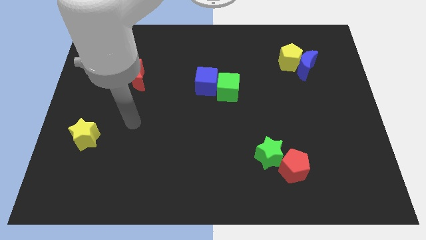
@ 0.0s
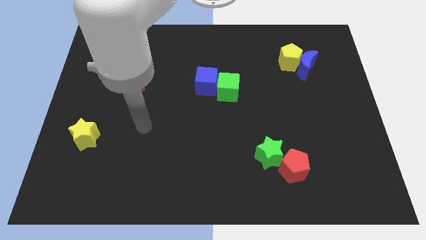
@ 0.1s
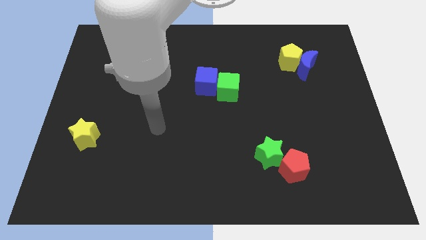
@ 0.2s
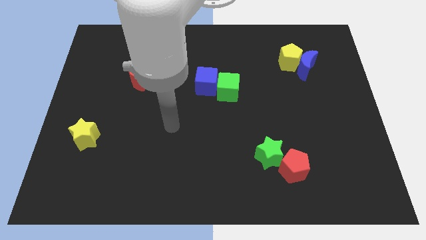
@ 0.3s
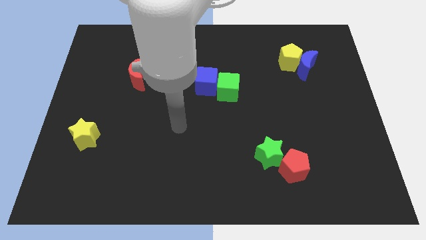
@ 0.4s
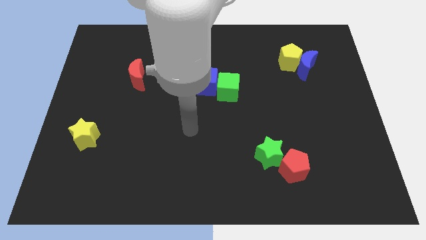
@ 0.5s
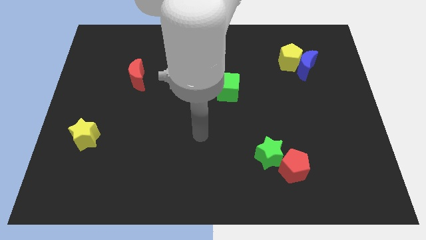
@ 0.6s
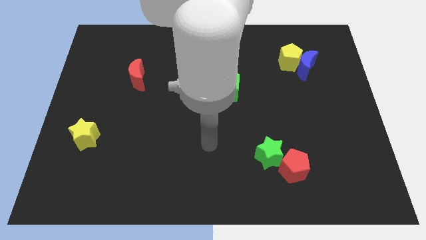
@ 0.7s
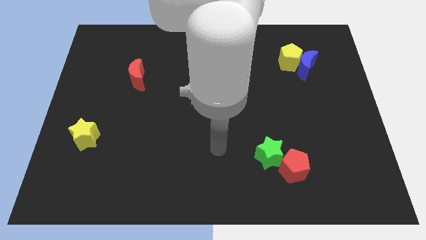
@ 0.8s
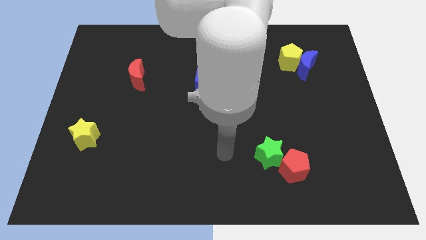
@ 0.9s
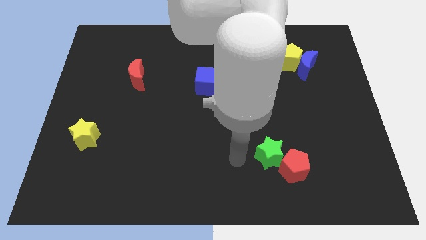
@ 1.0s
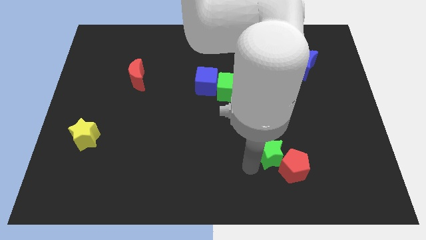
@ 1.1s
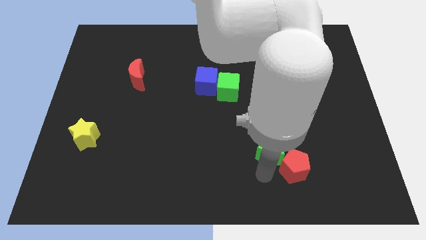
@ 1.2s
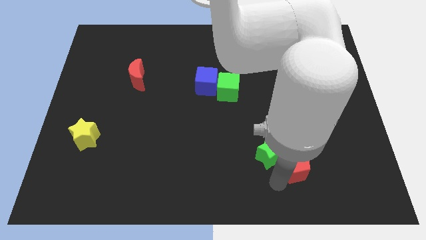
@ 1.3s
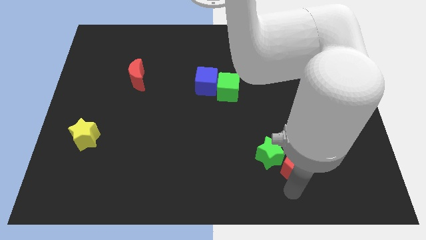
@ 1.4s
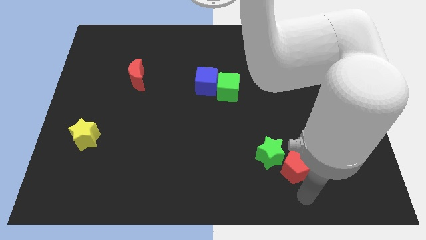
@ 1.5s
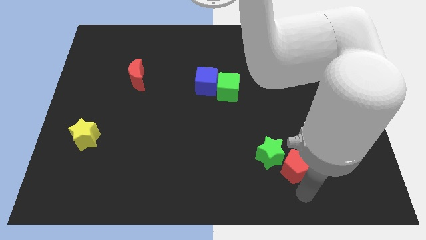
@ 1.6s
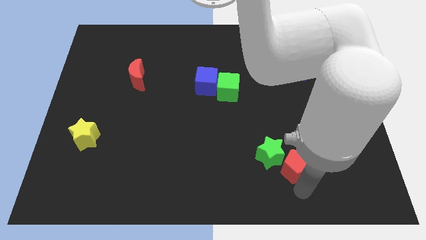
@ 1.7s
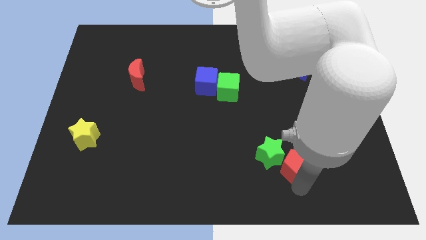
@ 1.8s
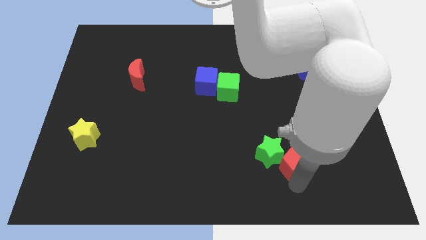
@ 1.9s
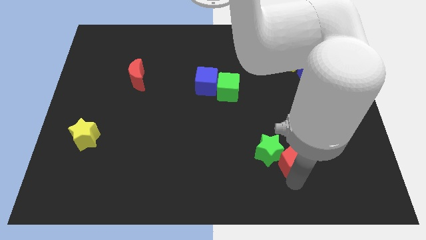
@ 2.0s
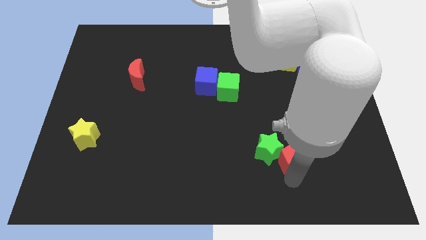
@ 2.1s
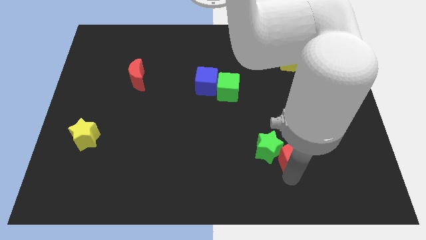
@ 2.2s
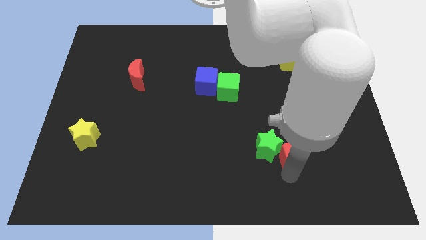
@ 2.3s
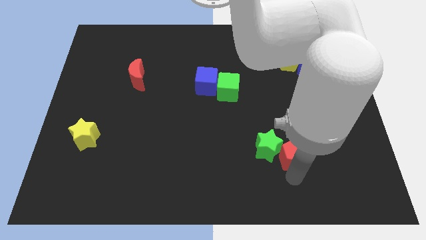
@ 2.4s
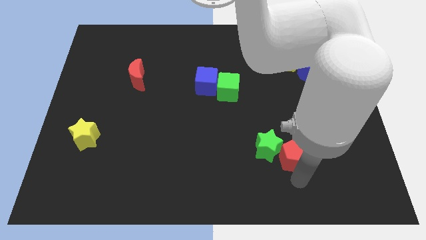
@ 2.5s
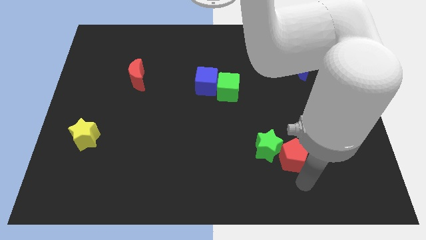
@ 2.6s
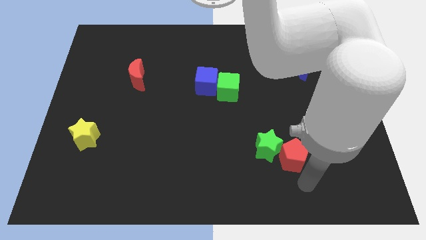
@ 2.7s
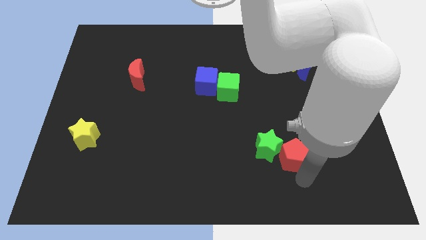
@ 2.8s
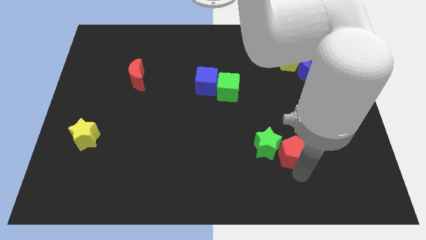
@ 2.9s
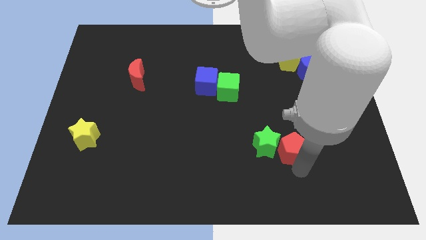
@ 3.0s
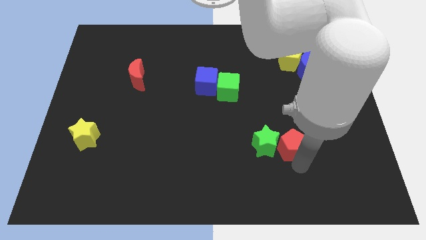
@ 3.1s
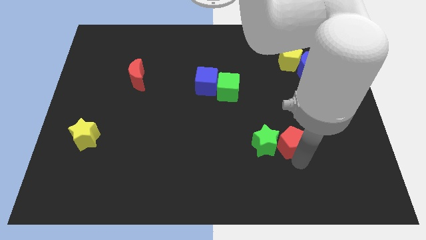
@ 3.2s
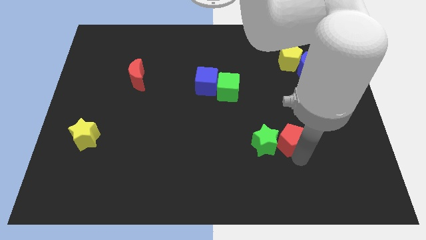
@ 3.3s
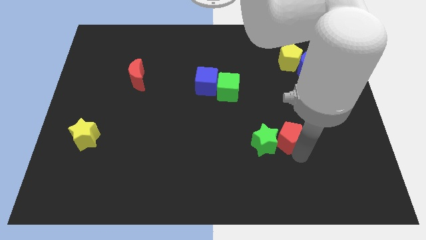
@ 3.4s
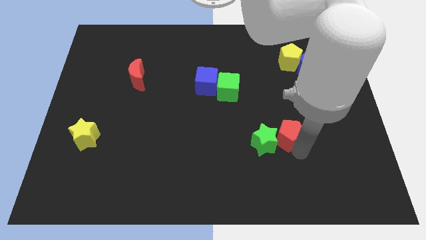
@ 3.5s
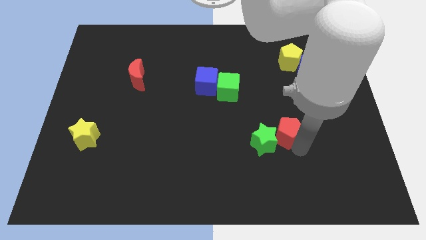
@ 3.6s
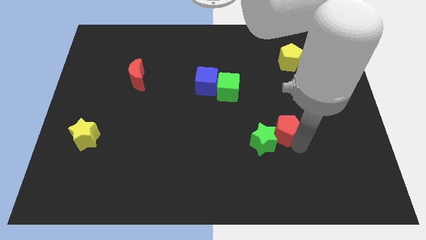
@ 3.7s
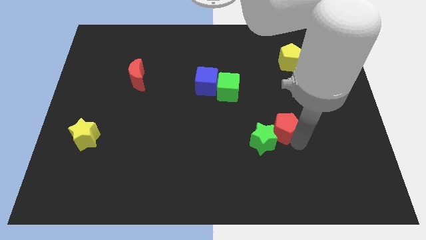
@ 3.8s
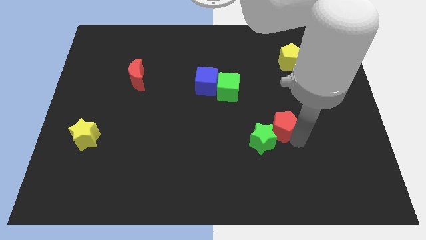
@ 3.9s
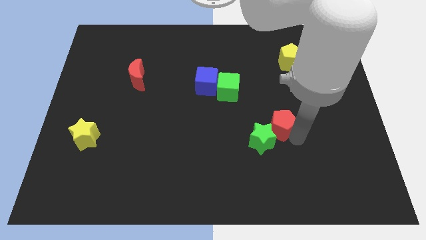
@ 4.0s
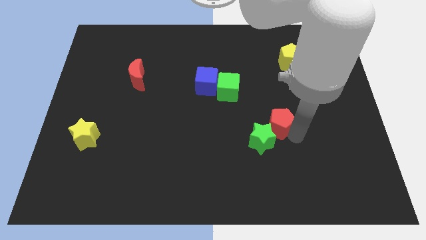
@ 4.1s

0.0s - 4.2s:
move the red pentagon slightly upwards and to the left diagonally

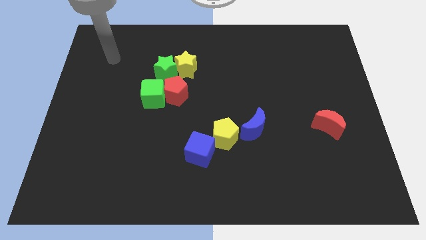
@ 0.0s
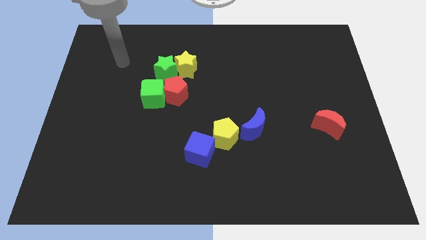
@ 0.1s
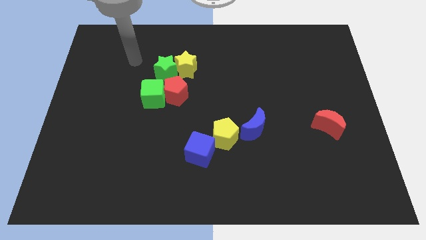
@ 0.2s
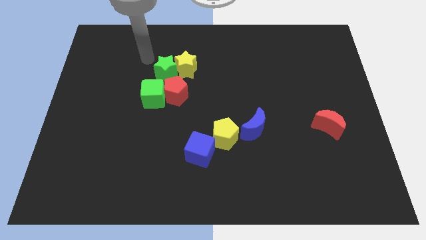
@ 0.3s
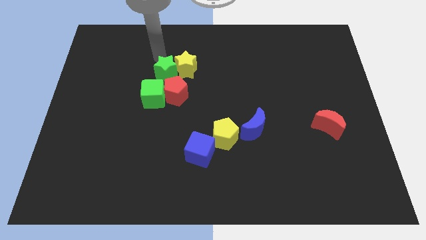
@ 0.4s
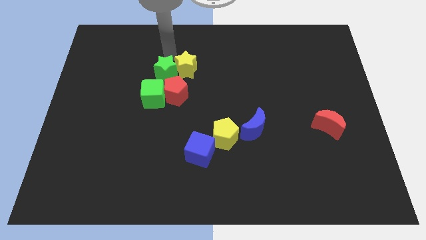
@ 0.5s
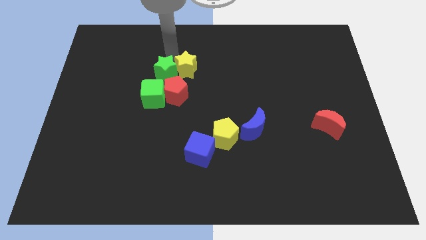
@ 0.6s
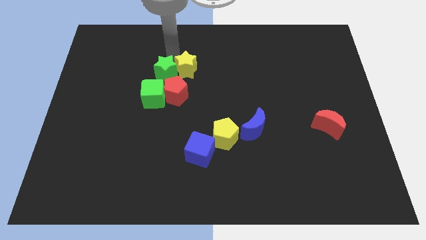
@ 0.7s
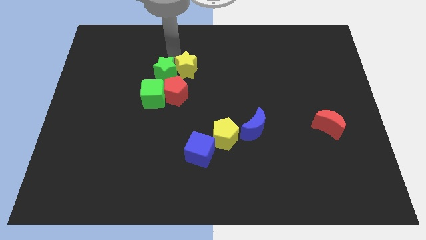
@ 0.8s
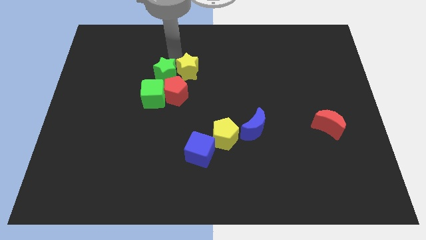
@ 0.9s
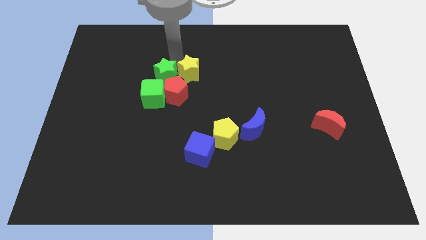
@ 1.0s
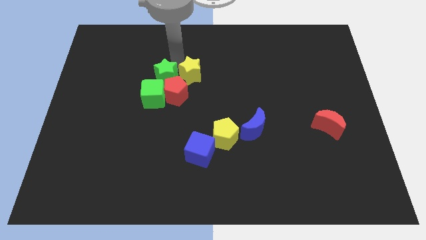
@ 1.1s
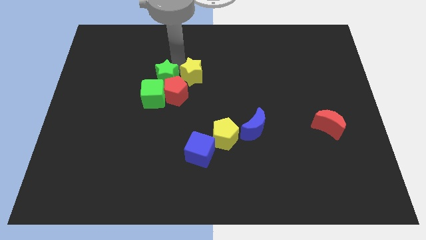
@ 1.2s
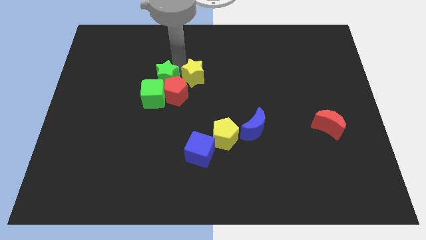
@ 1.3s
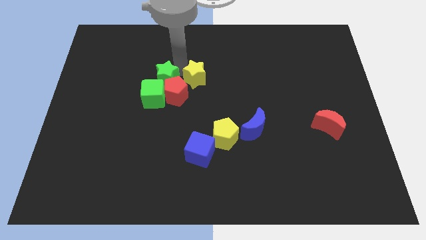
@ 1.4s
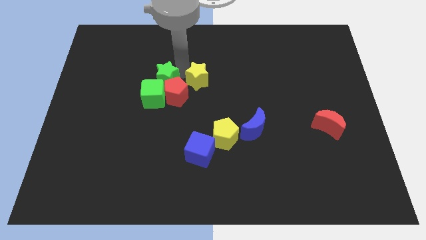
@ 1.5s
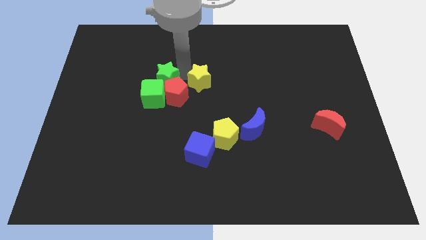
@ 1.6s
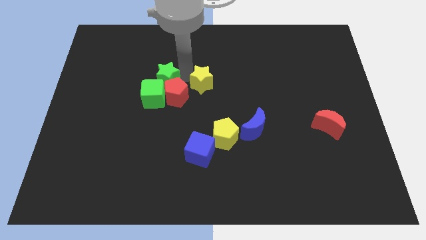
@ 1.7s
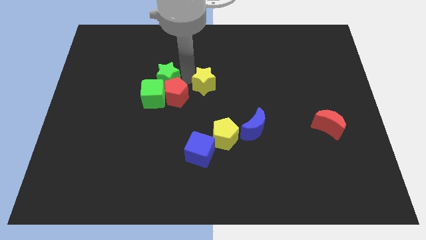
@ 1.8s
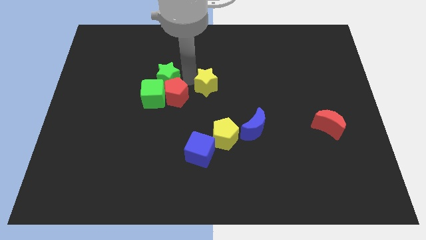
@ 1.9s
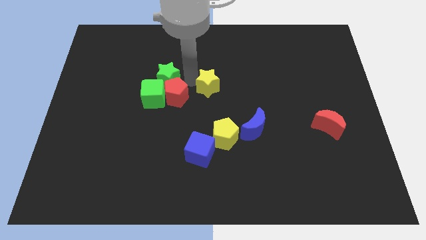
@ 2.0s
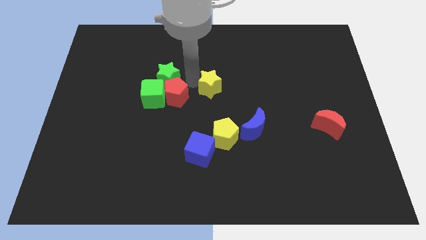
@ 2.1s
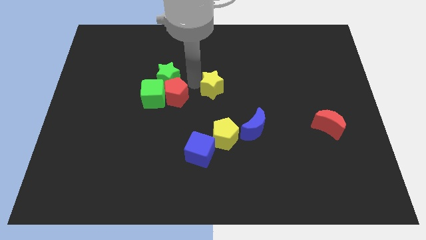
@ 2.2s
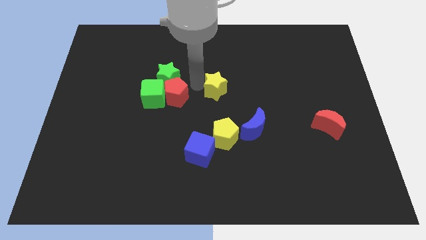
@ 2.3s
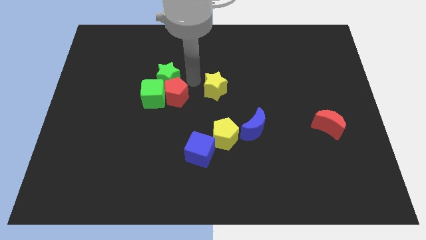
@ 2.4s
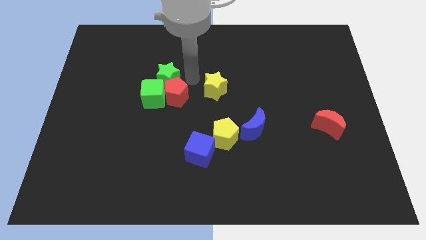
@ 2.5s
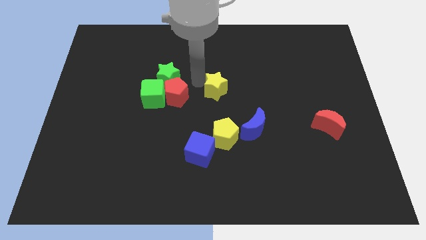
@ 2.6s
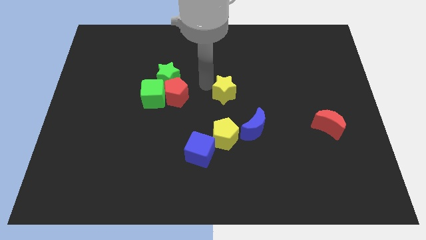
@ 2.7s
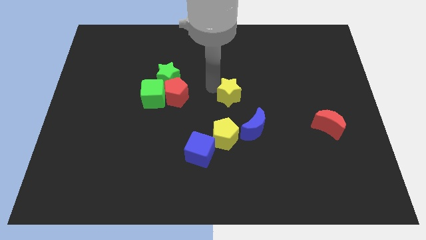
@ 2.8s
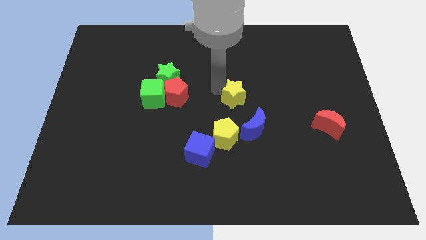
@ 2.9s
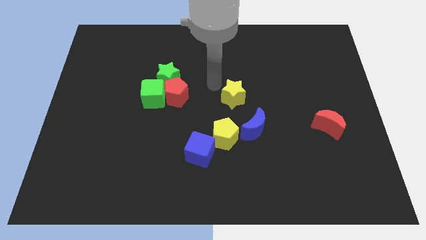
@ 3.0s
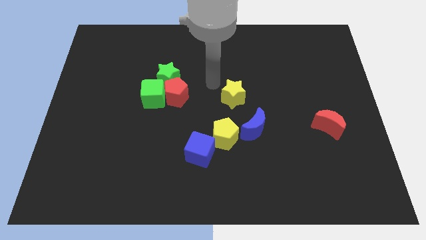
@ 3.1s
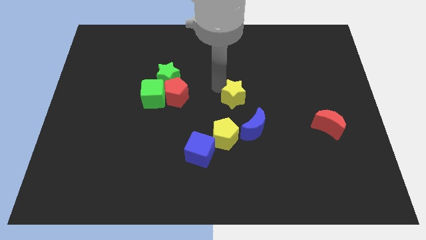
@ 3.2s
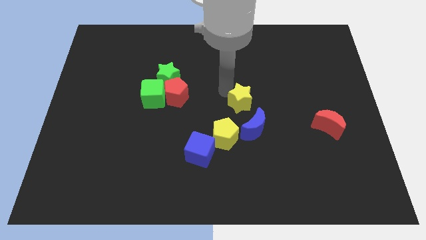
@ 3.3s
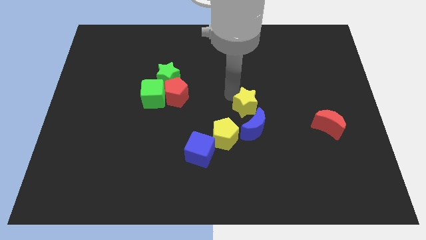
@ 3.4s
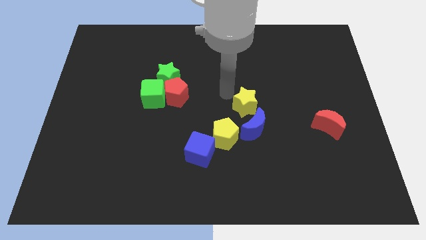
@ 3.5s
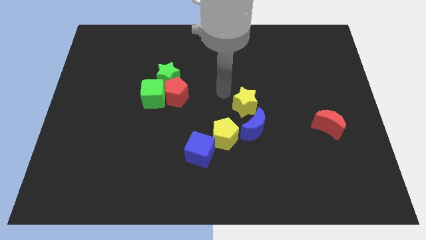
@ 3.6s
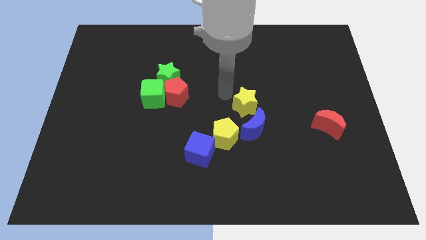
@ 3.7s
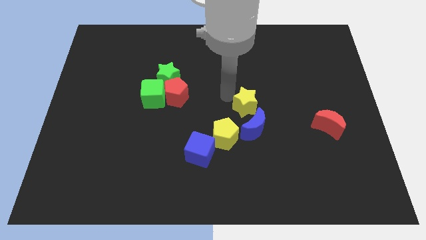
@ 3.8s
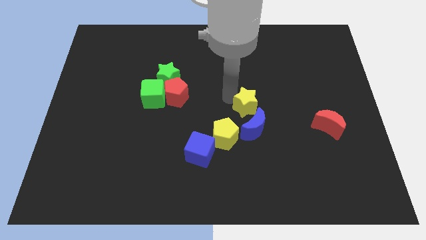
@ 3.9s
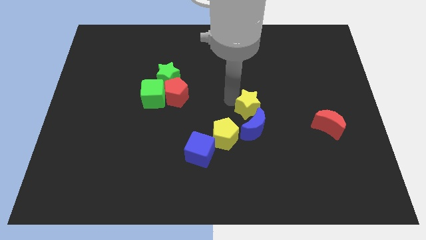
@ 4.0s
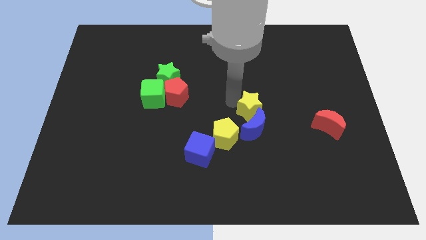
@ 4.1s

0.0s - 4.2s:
move the yellow star downwards and right diagonally
